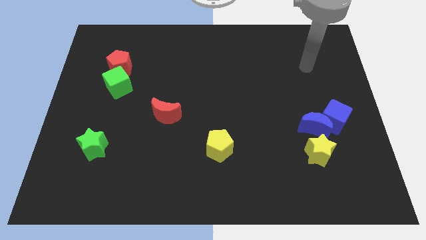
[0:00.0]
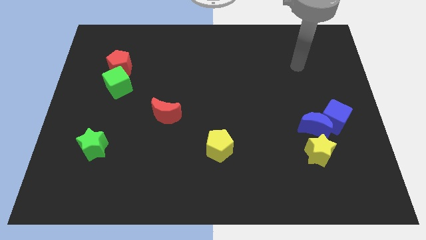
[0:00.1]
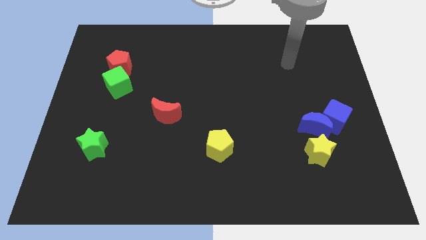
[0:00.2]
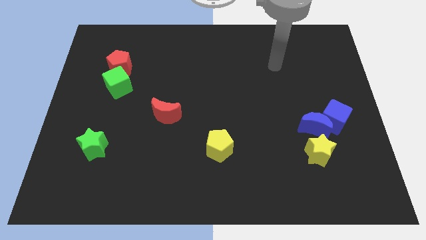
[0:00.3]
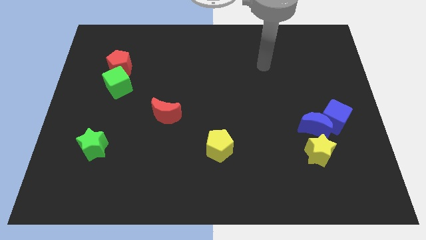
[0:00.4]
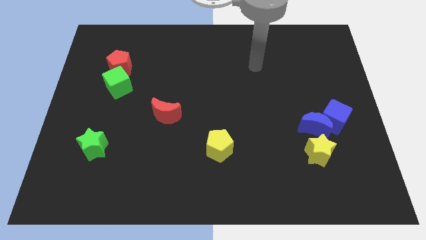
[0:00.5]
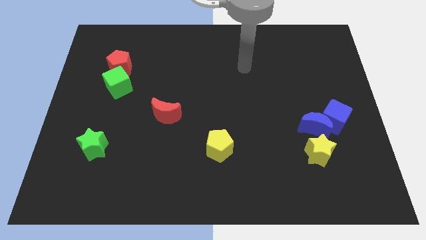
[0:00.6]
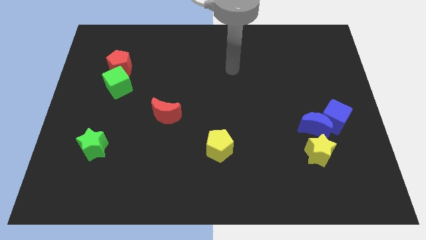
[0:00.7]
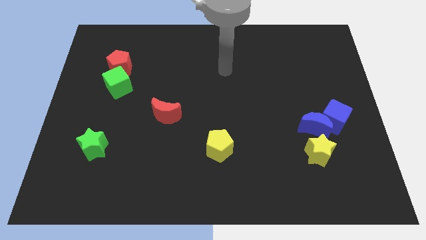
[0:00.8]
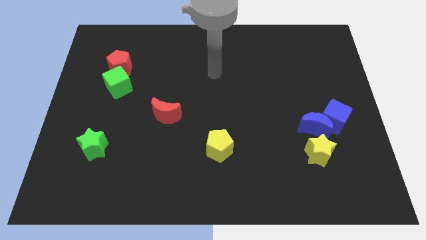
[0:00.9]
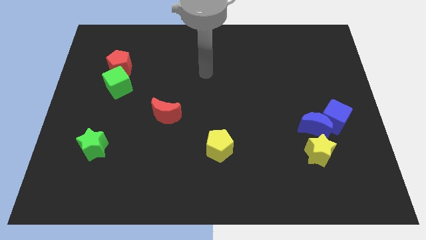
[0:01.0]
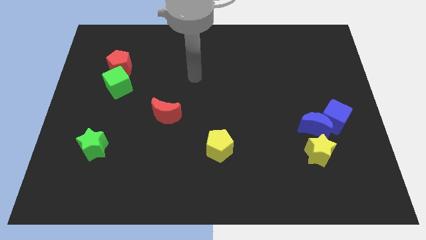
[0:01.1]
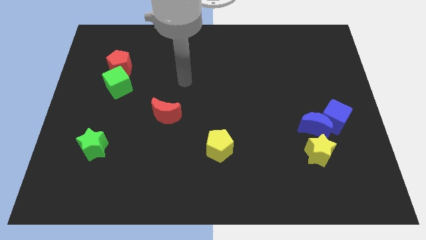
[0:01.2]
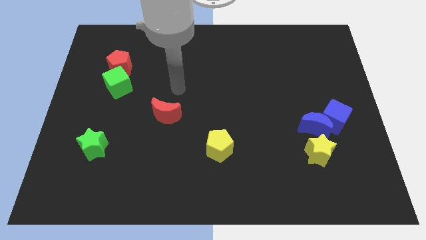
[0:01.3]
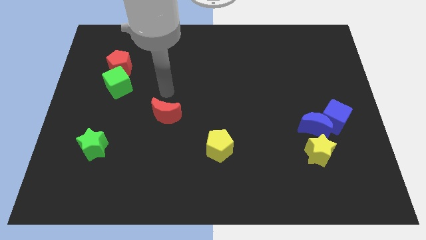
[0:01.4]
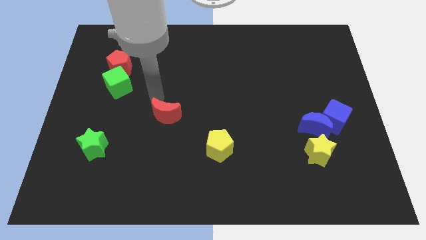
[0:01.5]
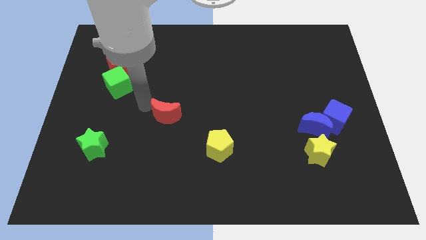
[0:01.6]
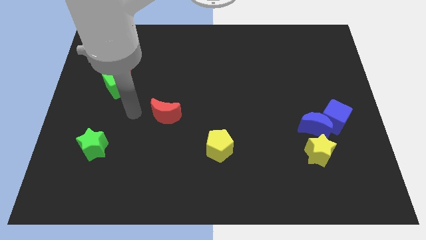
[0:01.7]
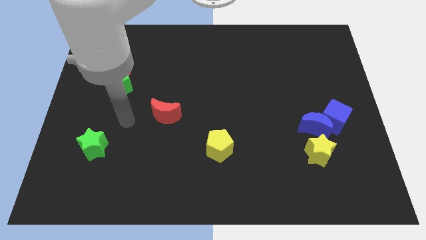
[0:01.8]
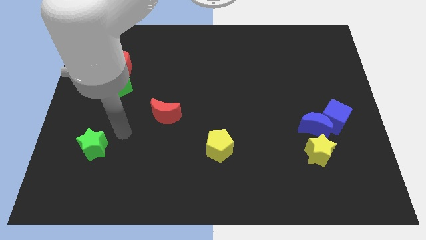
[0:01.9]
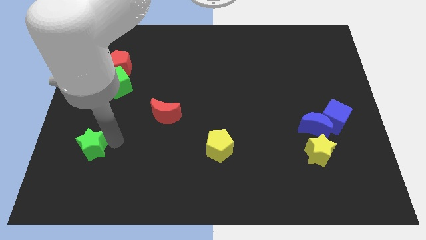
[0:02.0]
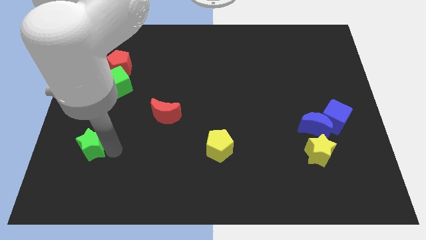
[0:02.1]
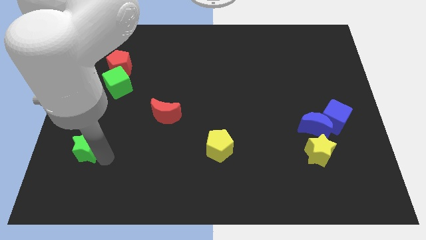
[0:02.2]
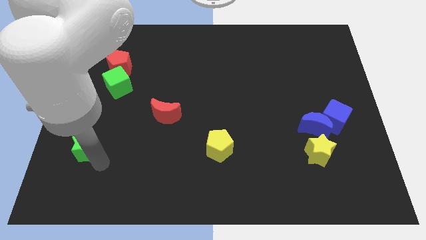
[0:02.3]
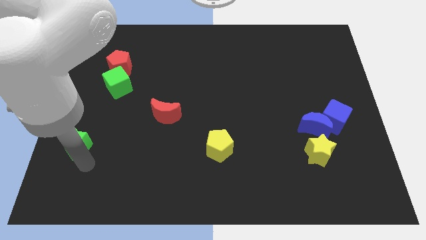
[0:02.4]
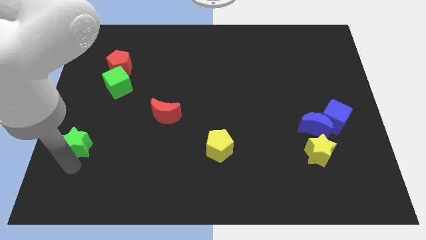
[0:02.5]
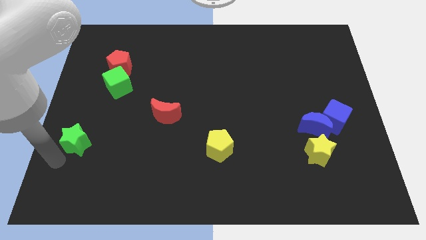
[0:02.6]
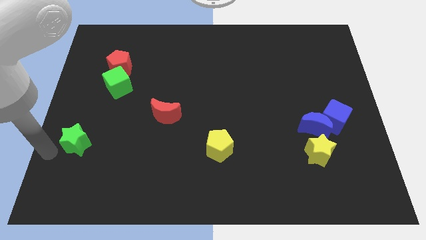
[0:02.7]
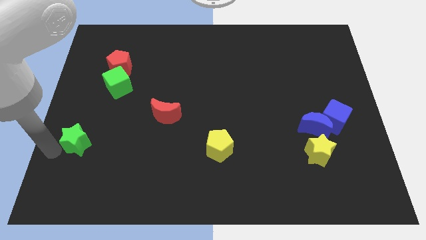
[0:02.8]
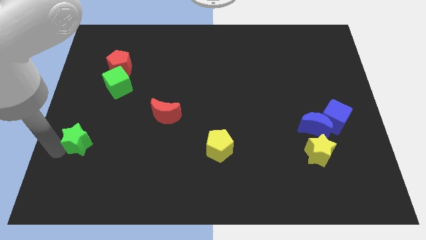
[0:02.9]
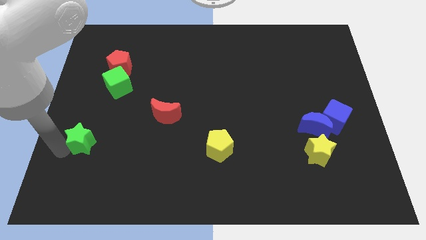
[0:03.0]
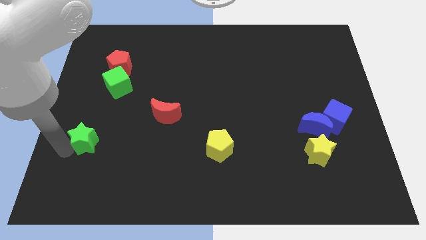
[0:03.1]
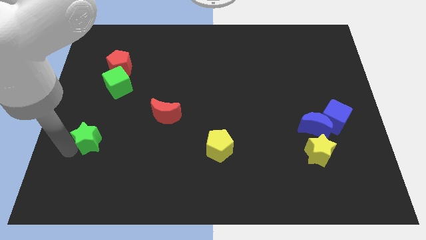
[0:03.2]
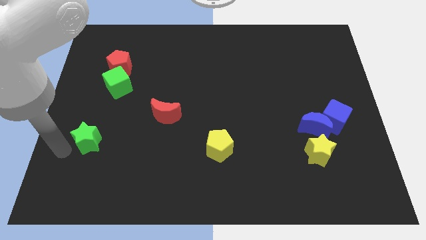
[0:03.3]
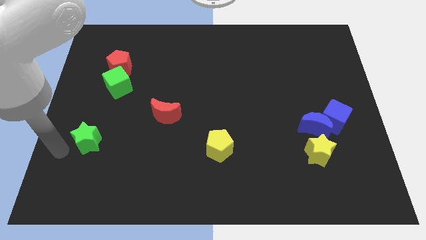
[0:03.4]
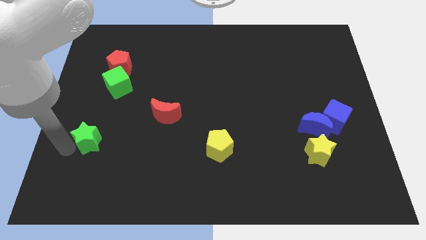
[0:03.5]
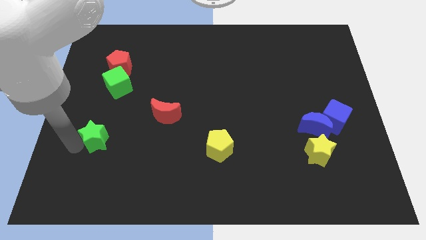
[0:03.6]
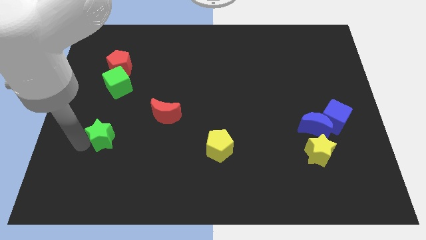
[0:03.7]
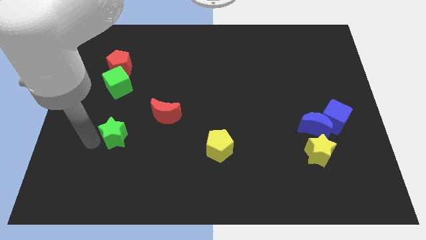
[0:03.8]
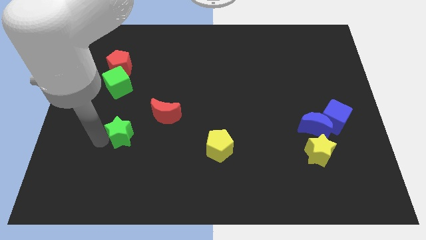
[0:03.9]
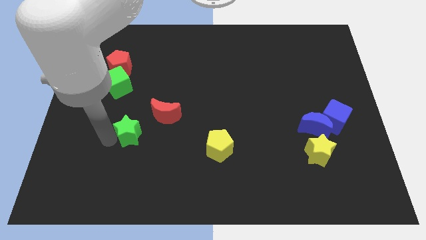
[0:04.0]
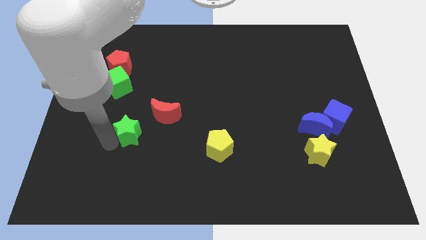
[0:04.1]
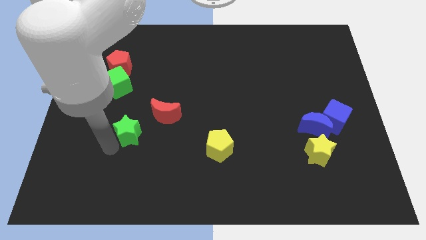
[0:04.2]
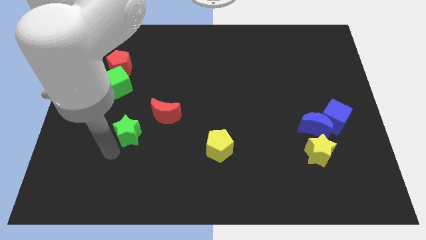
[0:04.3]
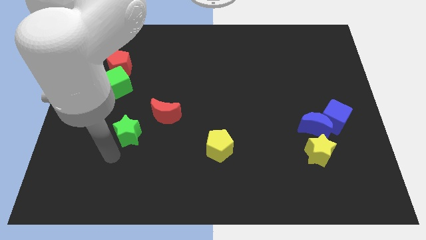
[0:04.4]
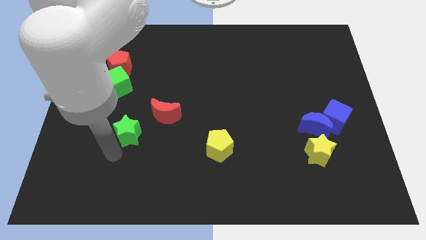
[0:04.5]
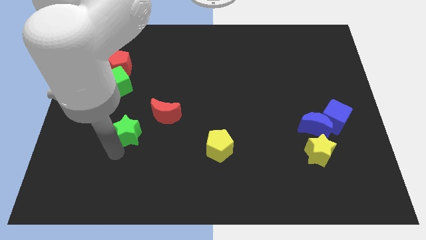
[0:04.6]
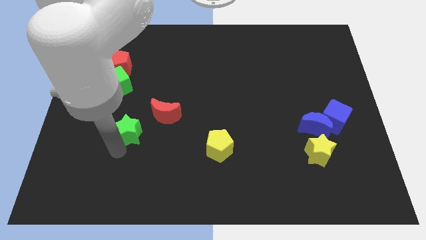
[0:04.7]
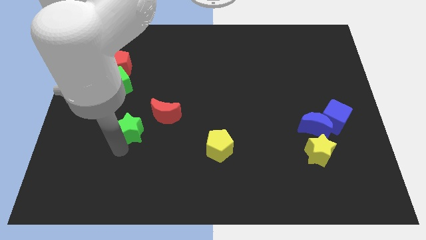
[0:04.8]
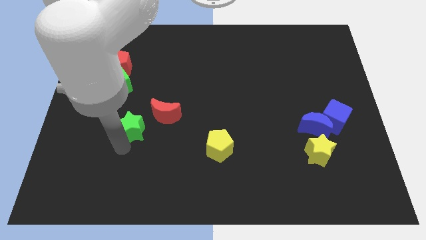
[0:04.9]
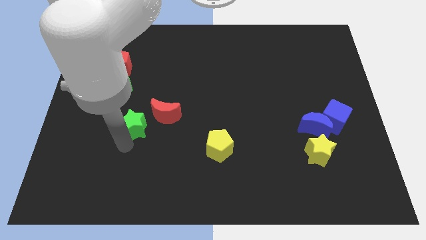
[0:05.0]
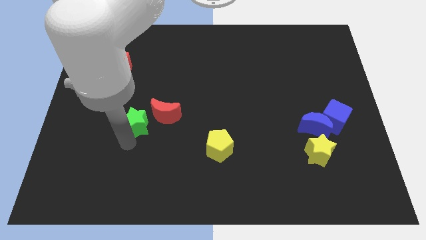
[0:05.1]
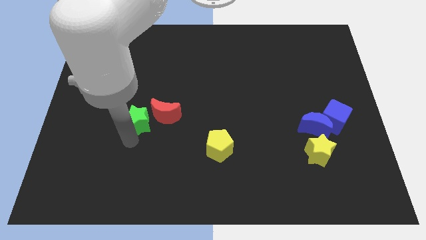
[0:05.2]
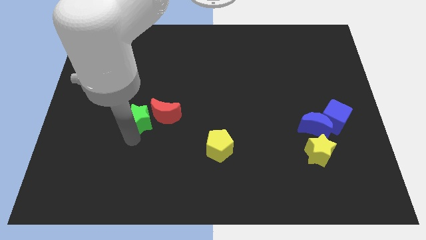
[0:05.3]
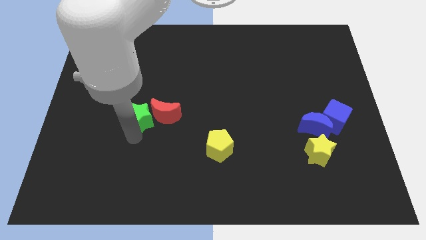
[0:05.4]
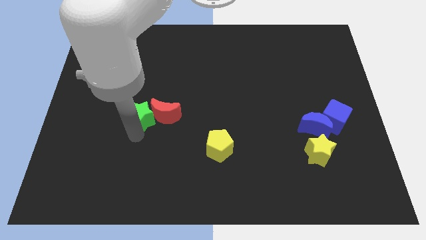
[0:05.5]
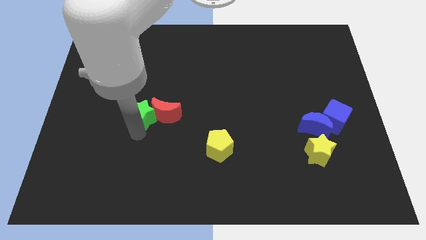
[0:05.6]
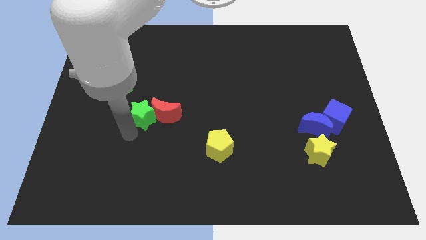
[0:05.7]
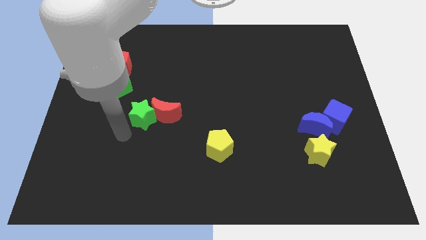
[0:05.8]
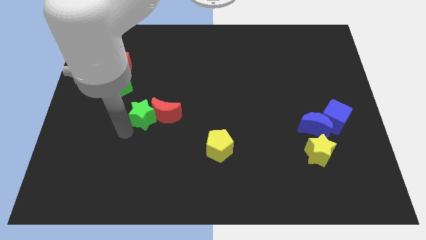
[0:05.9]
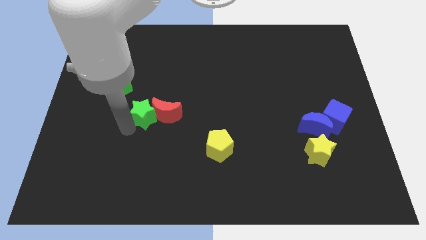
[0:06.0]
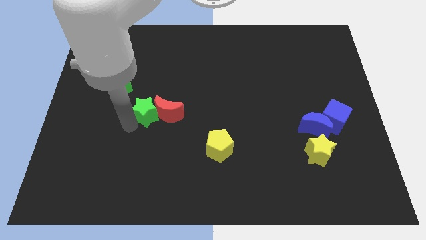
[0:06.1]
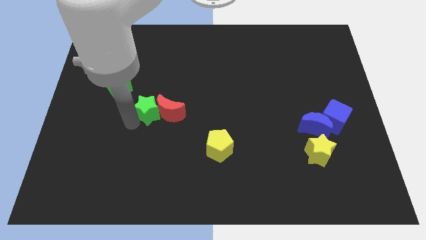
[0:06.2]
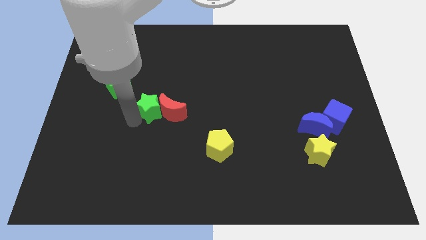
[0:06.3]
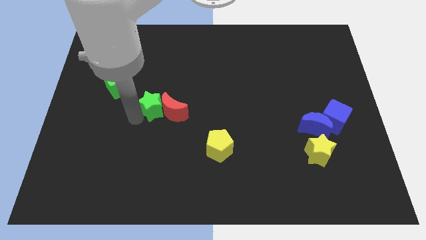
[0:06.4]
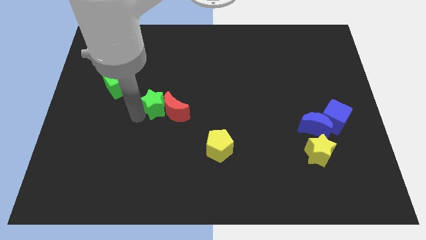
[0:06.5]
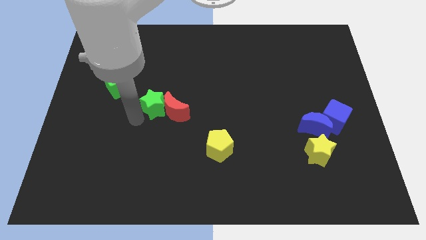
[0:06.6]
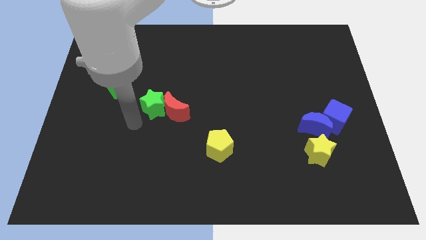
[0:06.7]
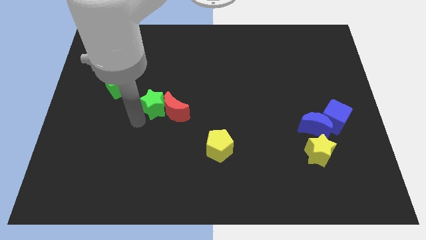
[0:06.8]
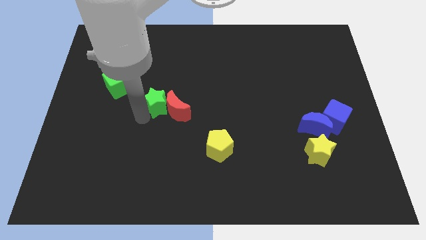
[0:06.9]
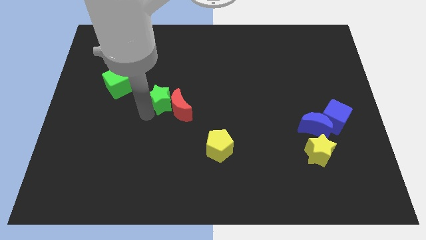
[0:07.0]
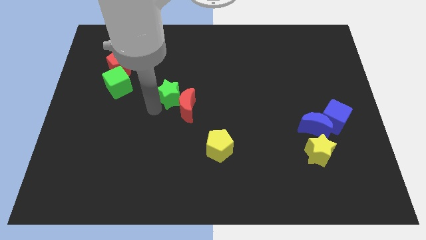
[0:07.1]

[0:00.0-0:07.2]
slide the green star diagonally upwards and right

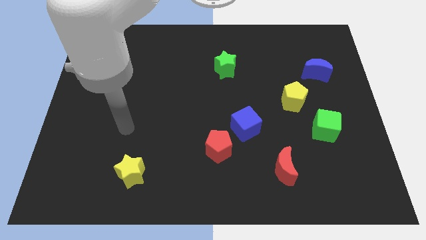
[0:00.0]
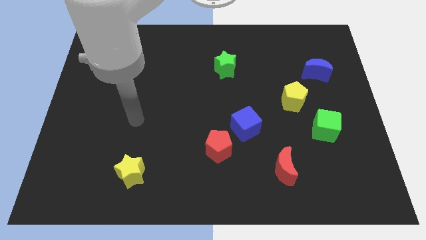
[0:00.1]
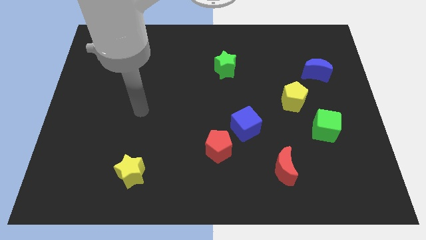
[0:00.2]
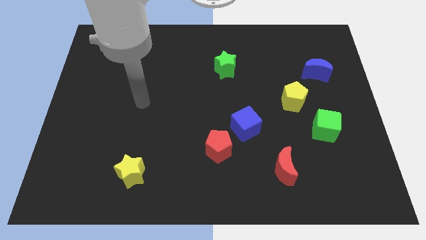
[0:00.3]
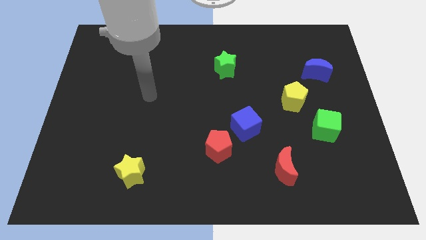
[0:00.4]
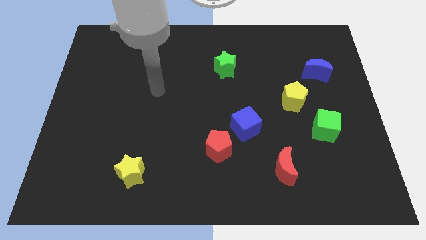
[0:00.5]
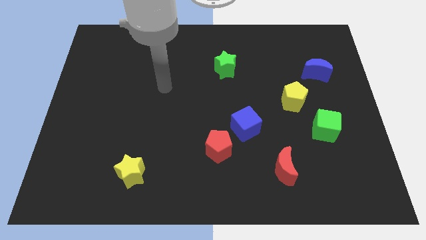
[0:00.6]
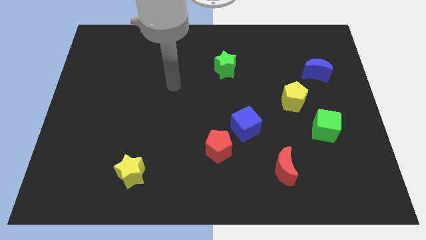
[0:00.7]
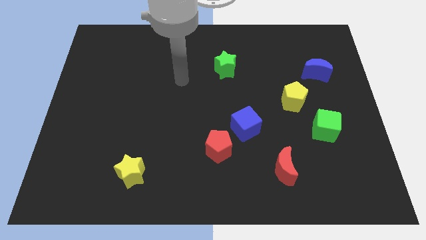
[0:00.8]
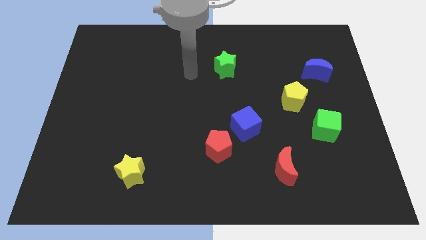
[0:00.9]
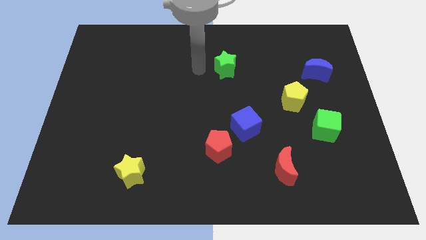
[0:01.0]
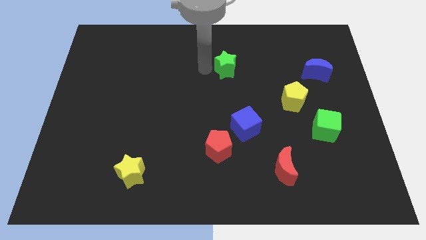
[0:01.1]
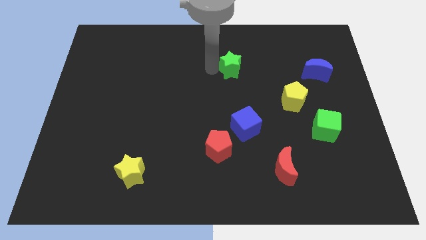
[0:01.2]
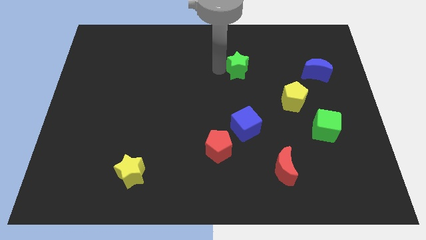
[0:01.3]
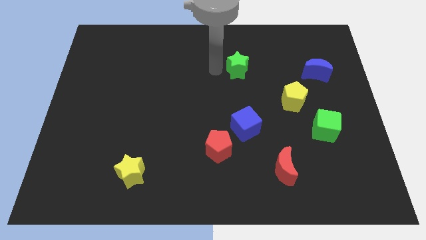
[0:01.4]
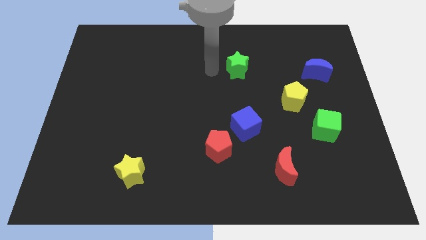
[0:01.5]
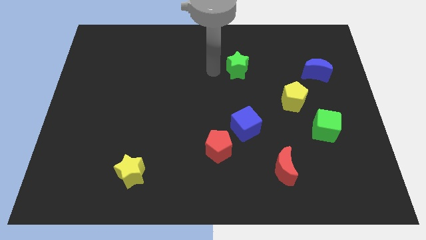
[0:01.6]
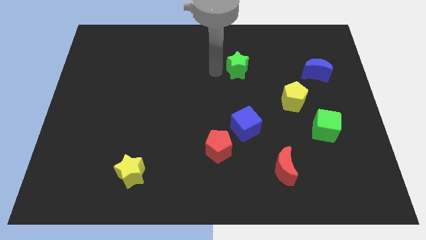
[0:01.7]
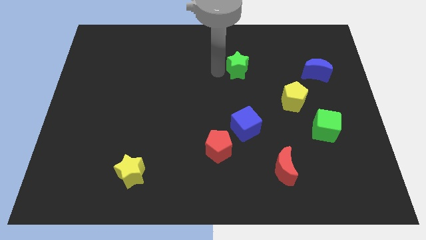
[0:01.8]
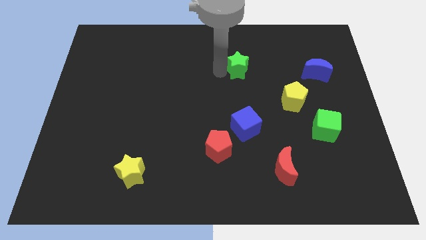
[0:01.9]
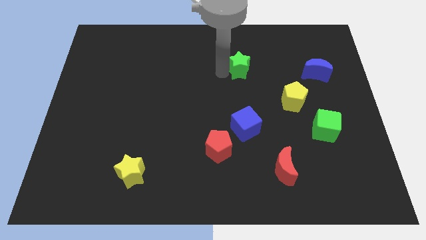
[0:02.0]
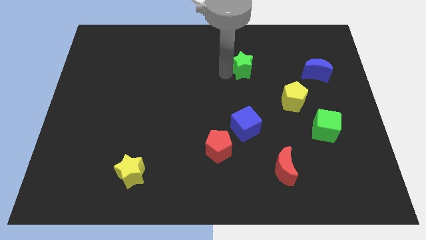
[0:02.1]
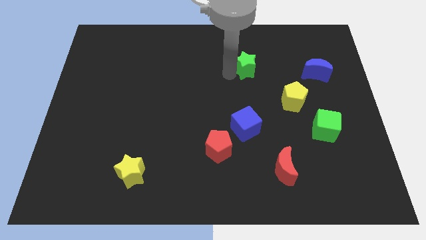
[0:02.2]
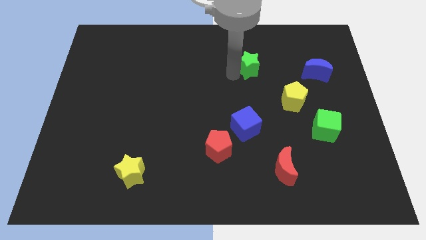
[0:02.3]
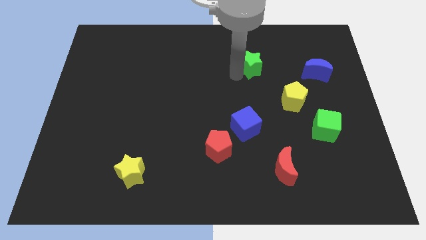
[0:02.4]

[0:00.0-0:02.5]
push the green star somewhat to the right
